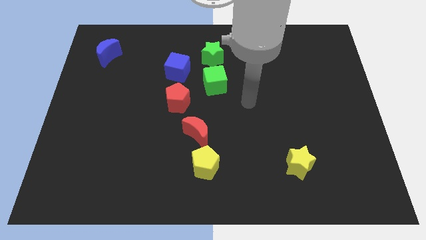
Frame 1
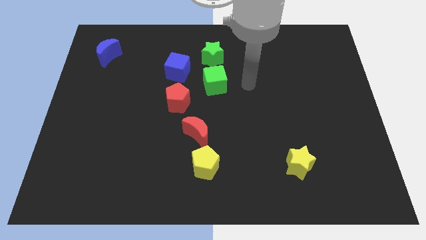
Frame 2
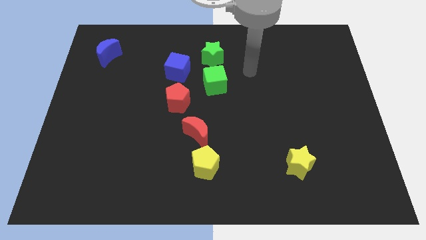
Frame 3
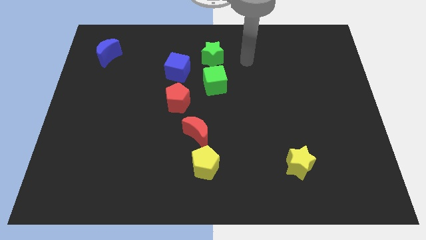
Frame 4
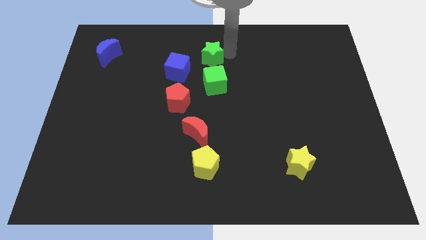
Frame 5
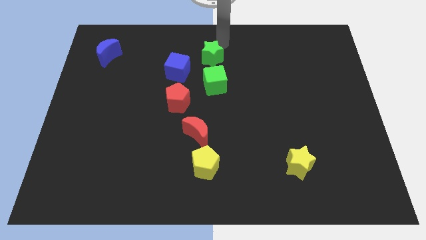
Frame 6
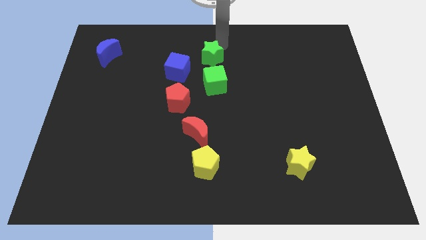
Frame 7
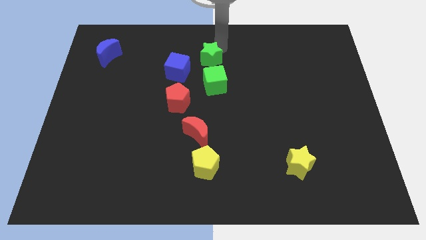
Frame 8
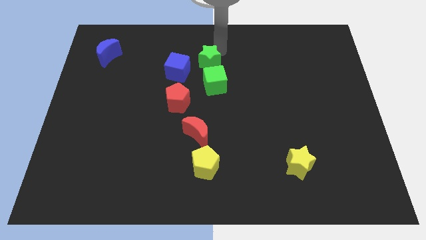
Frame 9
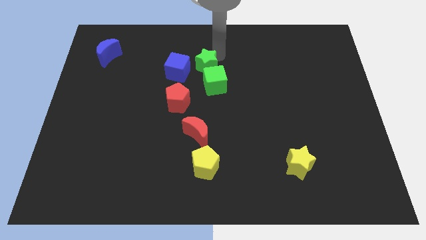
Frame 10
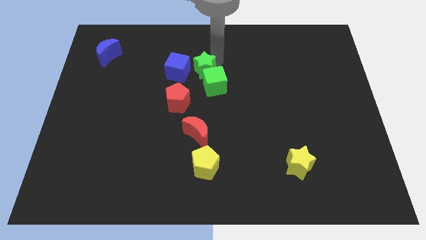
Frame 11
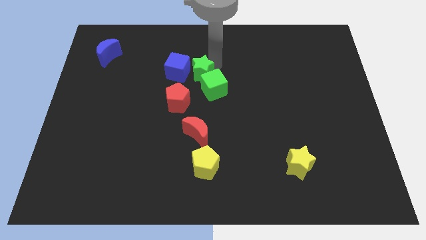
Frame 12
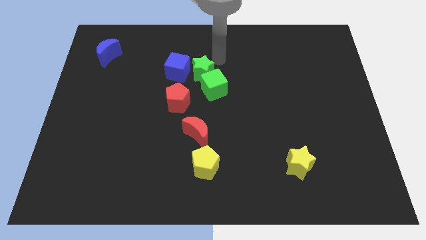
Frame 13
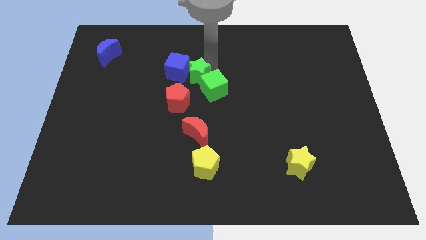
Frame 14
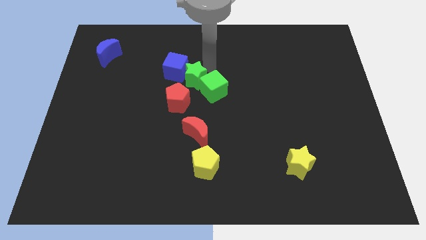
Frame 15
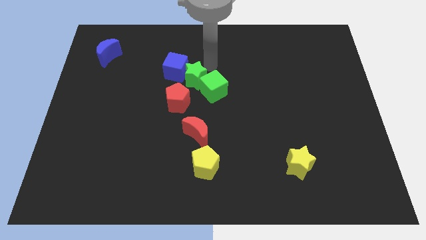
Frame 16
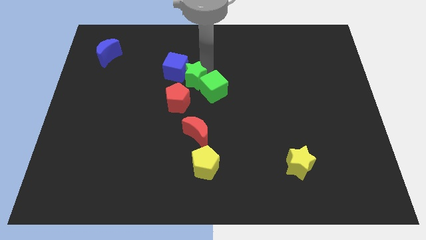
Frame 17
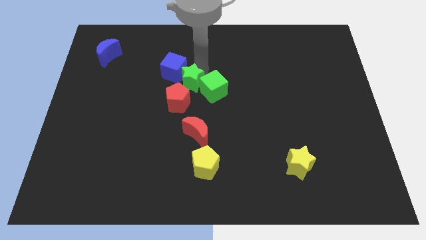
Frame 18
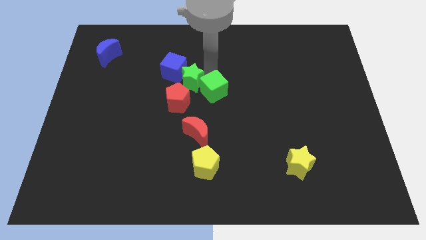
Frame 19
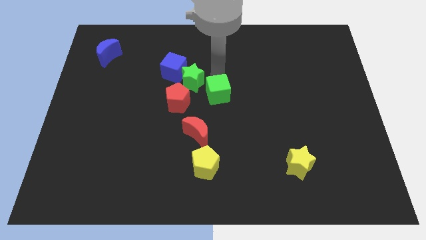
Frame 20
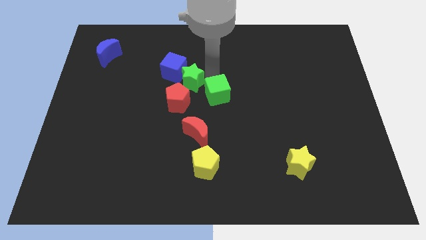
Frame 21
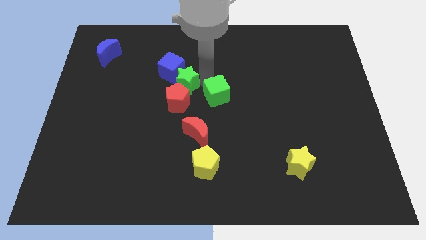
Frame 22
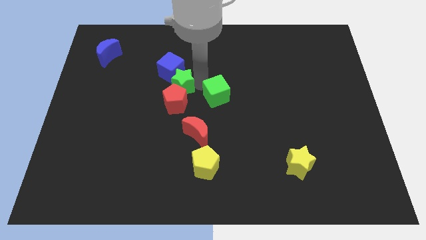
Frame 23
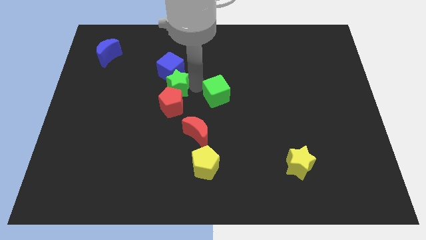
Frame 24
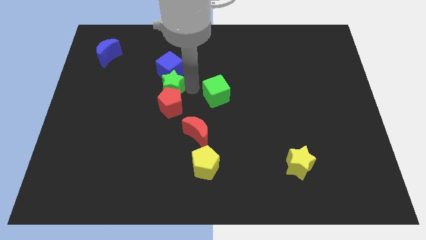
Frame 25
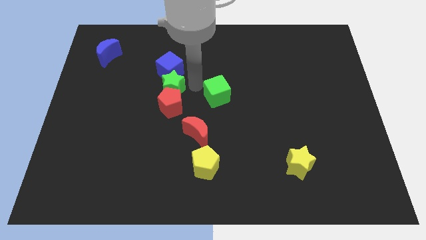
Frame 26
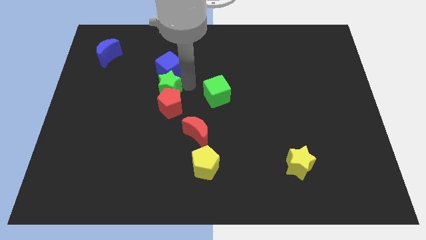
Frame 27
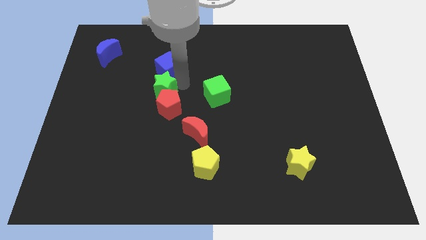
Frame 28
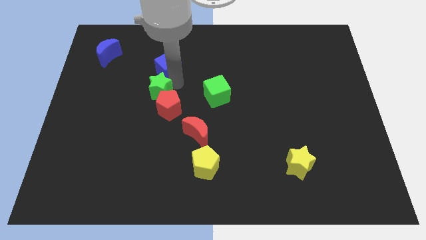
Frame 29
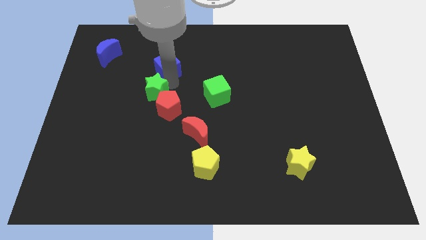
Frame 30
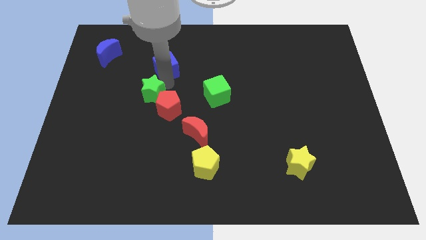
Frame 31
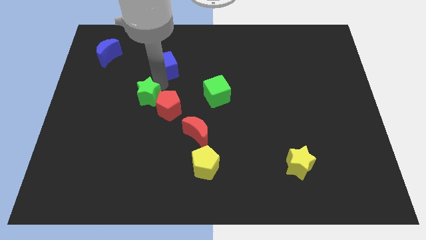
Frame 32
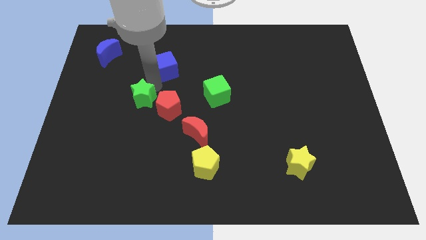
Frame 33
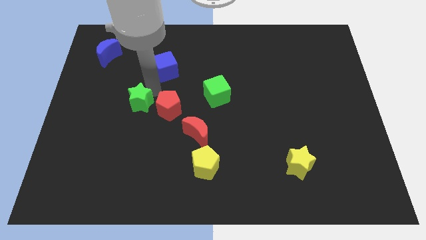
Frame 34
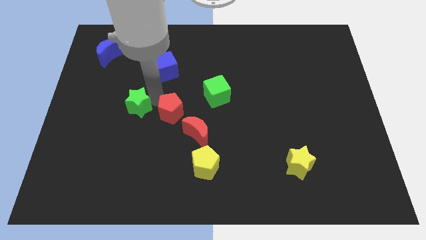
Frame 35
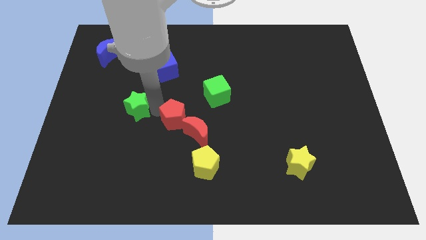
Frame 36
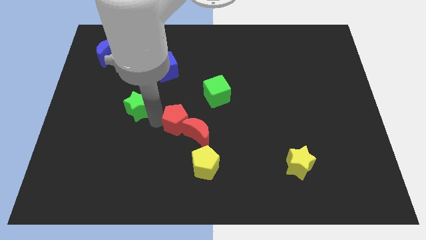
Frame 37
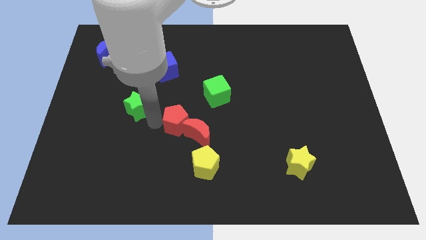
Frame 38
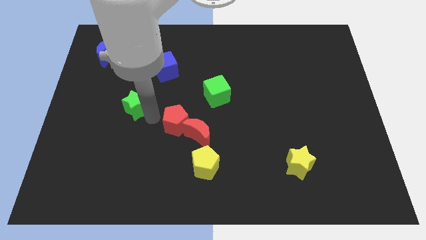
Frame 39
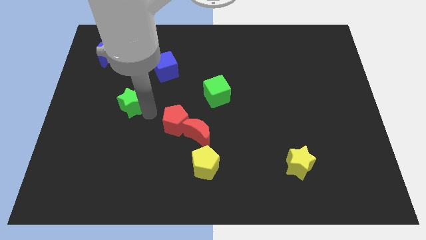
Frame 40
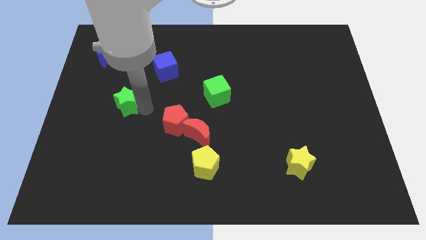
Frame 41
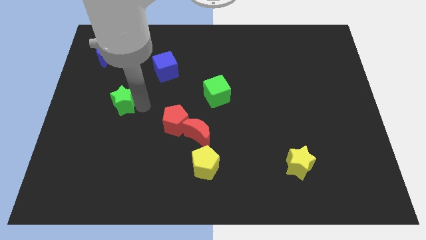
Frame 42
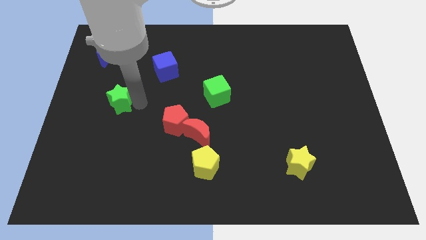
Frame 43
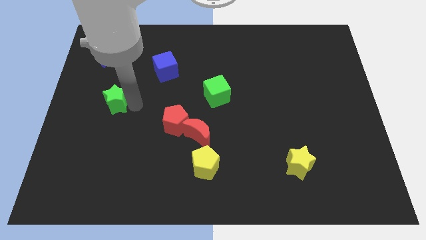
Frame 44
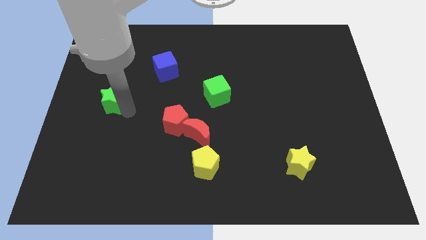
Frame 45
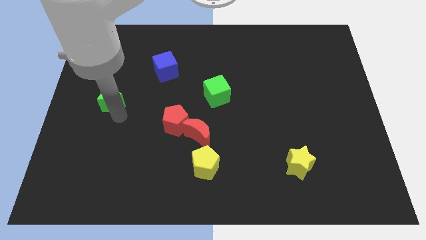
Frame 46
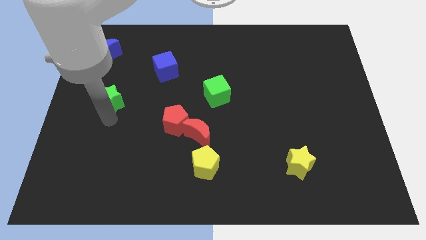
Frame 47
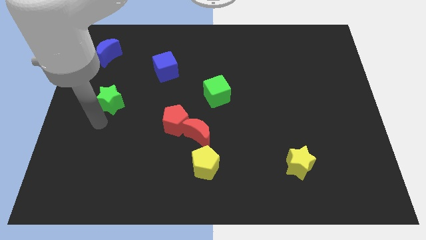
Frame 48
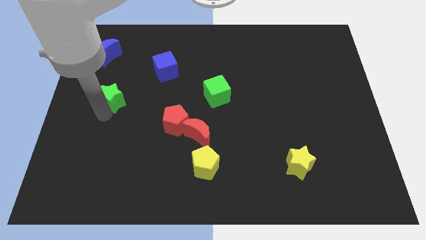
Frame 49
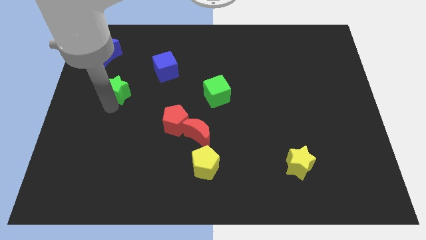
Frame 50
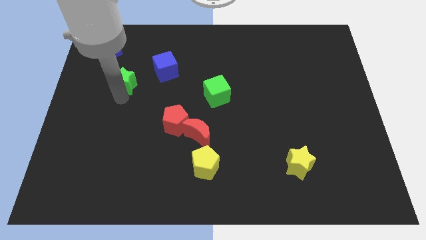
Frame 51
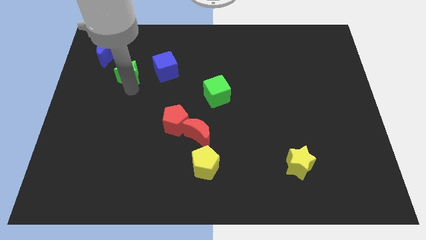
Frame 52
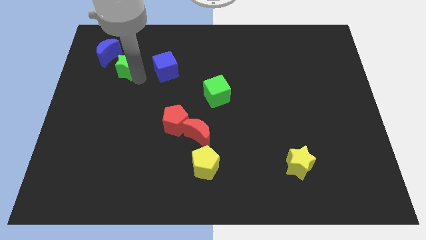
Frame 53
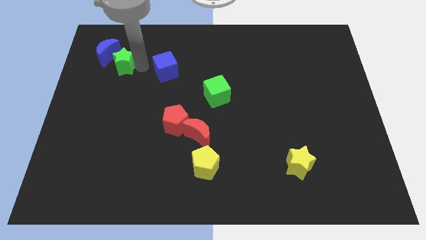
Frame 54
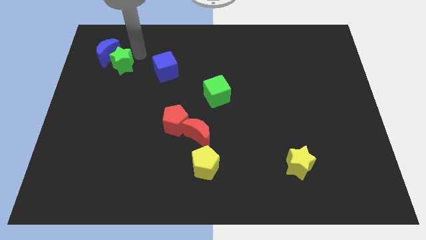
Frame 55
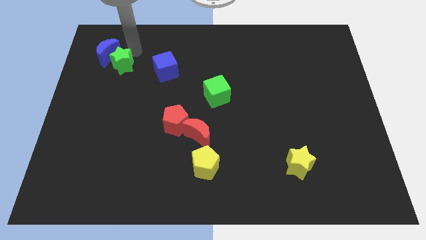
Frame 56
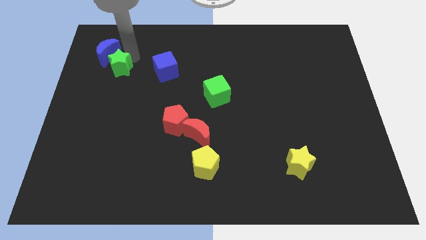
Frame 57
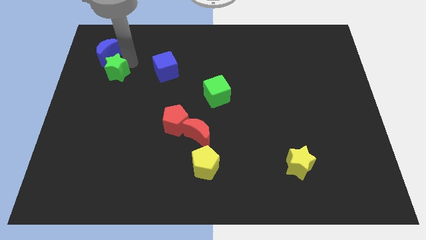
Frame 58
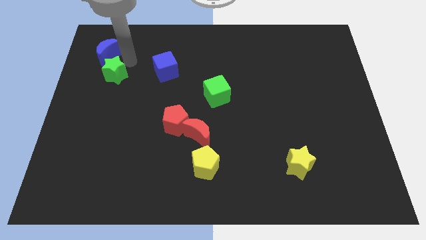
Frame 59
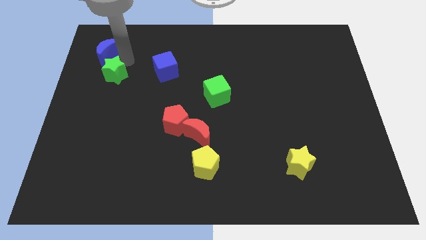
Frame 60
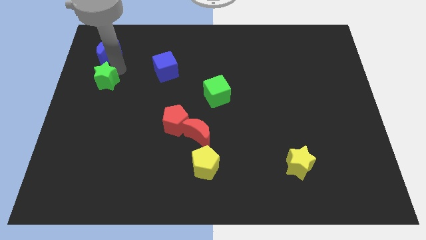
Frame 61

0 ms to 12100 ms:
slide the green star to the left side of the board

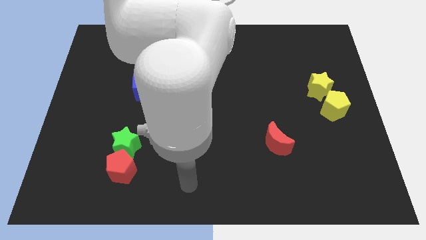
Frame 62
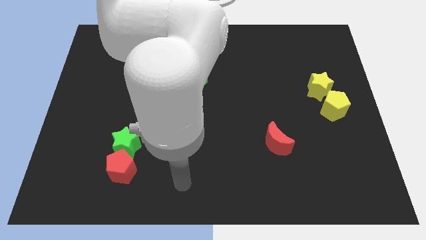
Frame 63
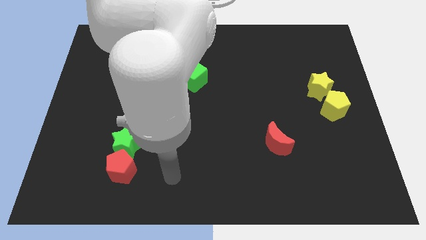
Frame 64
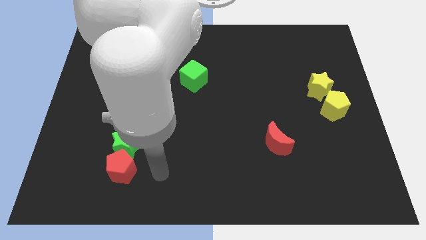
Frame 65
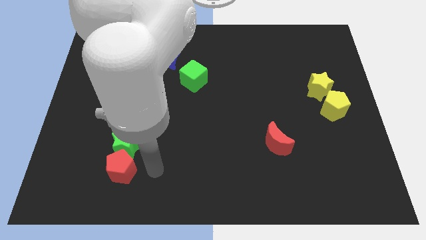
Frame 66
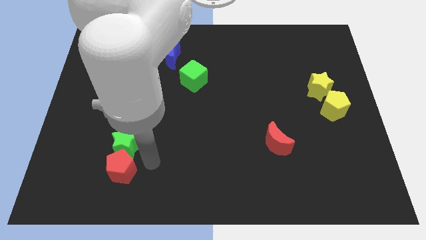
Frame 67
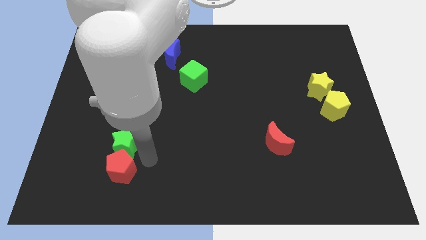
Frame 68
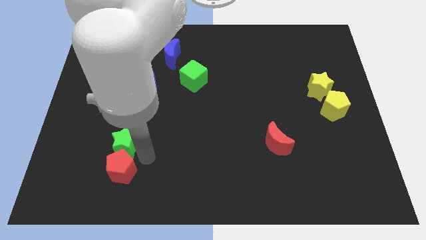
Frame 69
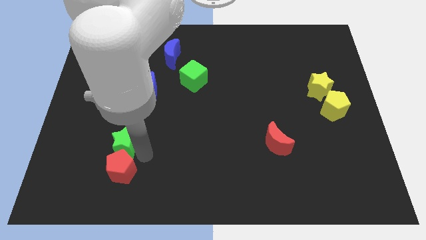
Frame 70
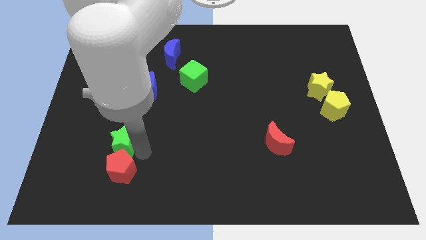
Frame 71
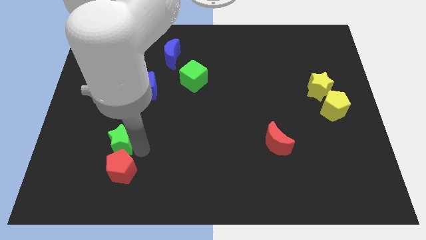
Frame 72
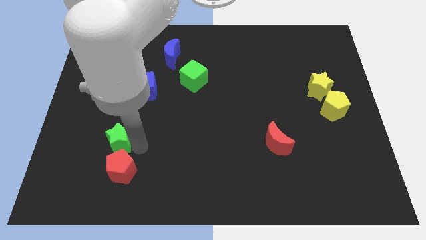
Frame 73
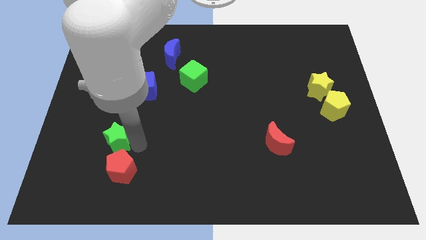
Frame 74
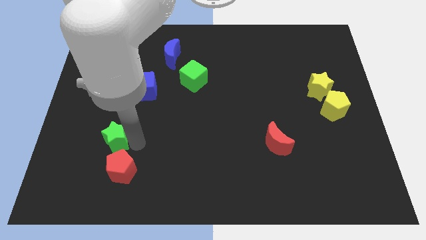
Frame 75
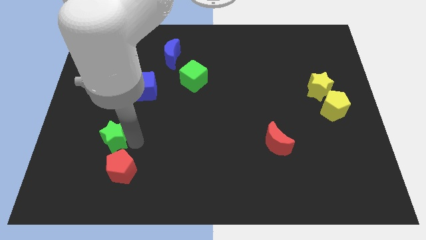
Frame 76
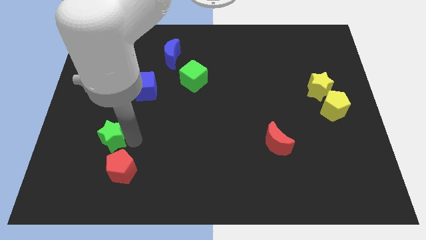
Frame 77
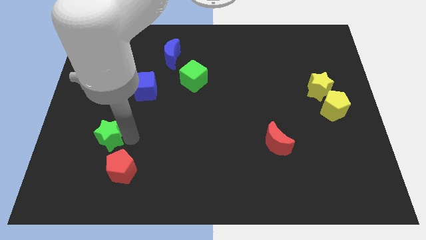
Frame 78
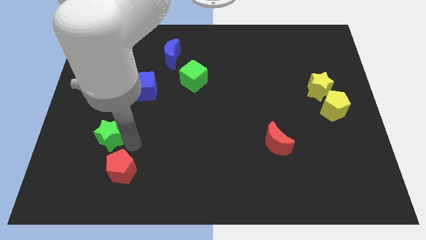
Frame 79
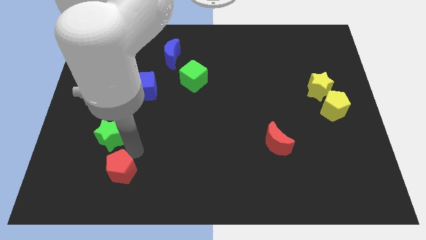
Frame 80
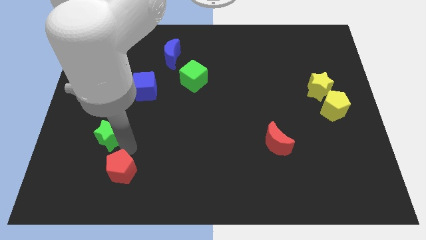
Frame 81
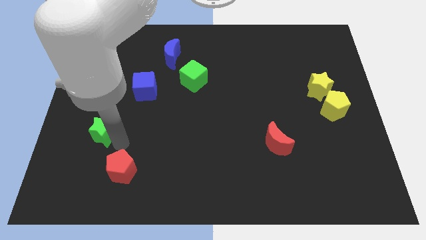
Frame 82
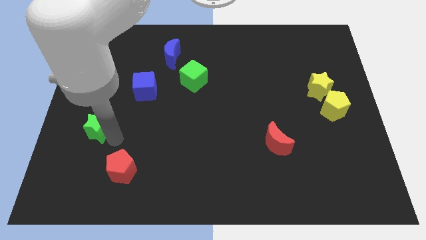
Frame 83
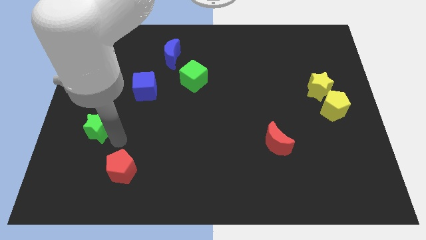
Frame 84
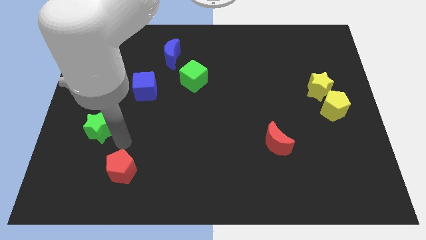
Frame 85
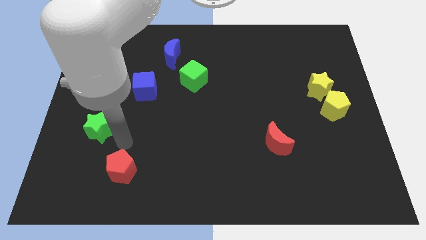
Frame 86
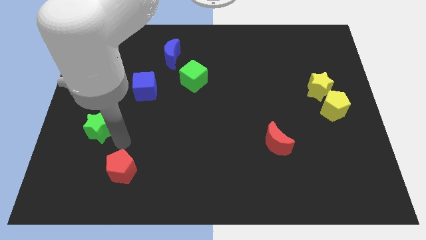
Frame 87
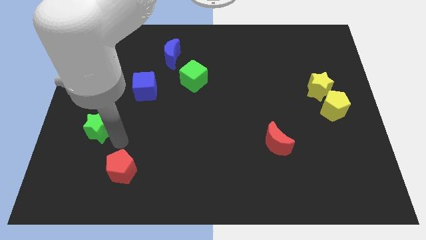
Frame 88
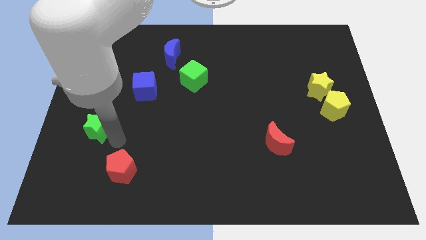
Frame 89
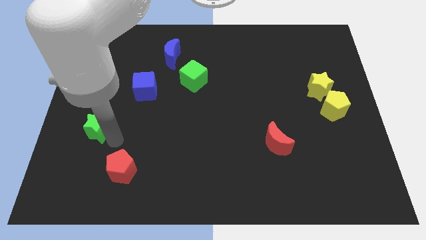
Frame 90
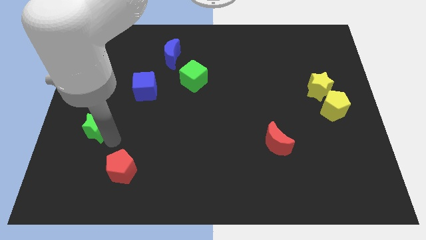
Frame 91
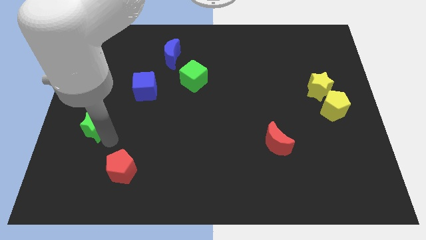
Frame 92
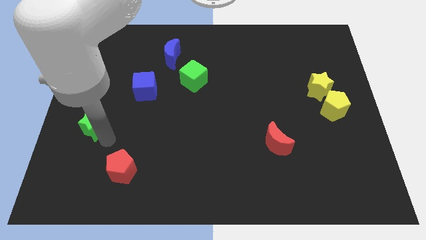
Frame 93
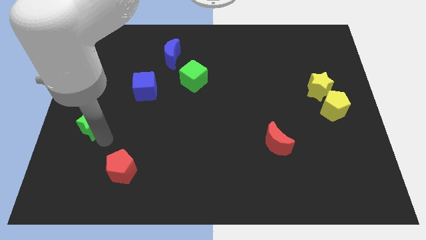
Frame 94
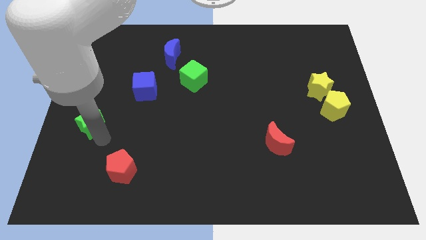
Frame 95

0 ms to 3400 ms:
push the green star to the center left
